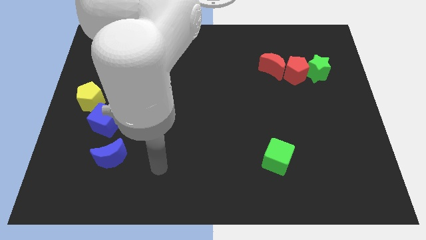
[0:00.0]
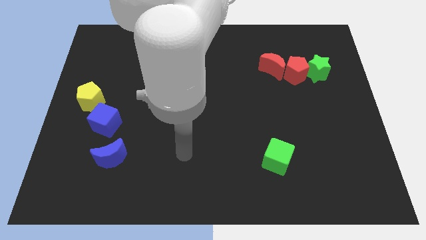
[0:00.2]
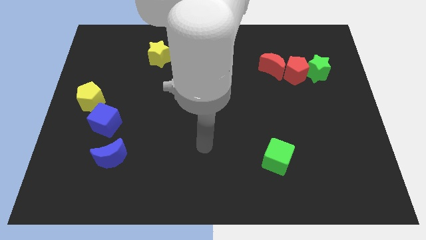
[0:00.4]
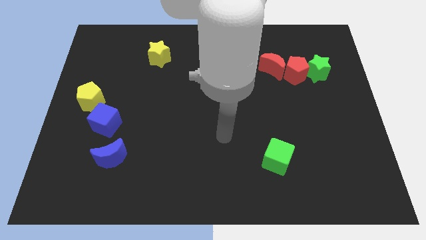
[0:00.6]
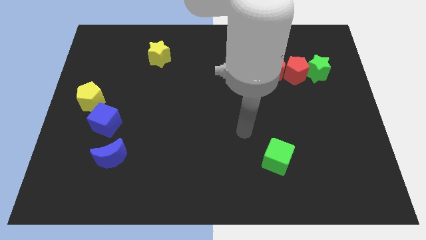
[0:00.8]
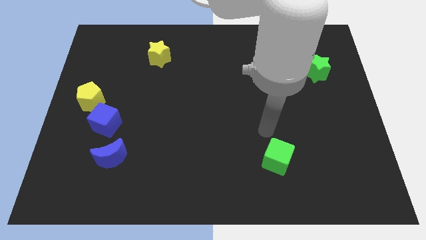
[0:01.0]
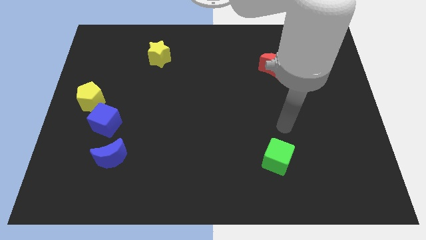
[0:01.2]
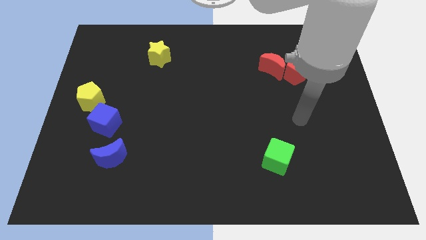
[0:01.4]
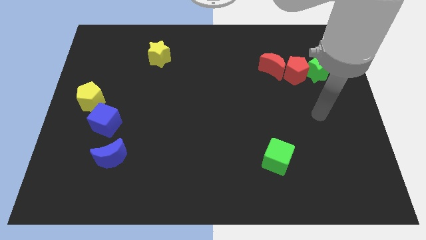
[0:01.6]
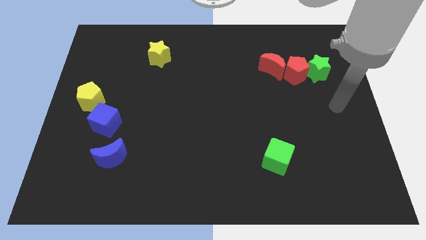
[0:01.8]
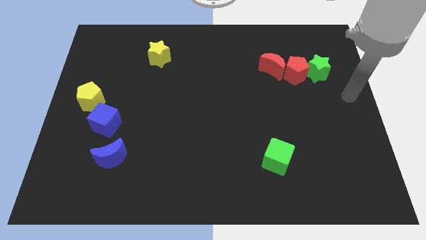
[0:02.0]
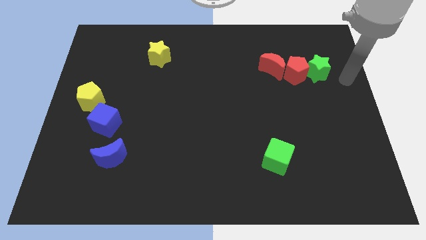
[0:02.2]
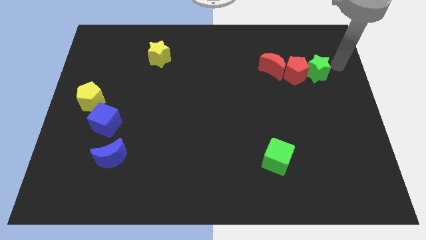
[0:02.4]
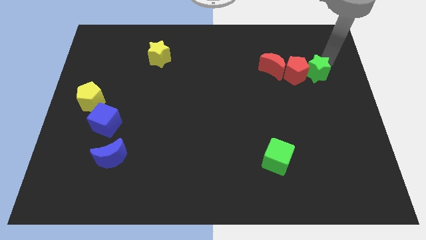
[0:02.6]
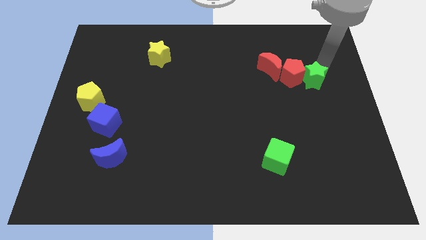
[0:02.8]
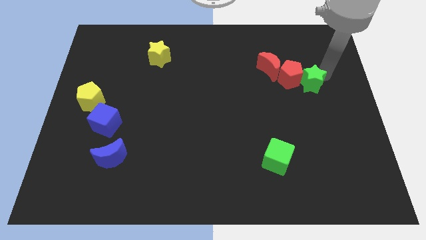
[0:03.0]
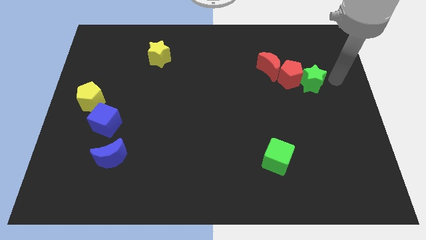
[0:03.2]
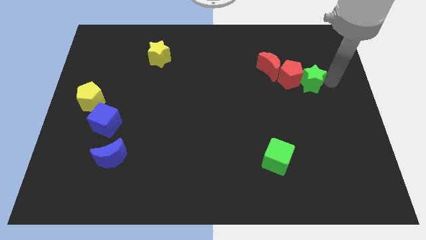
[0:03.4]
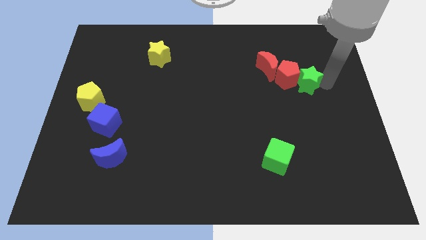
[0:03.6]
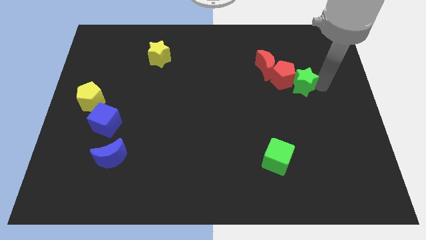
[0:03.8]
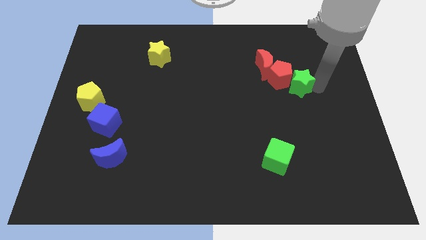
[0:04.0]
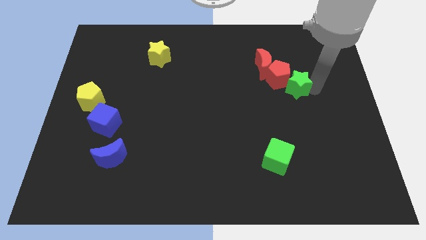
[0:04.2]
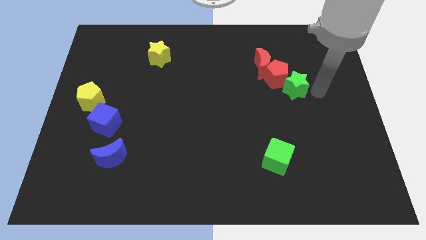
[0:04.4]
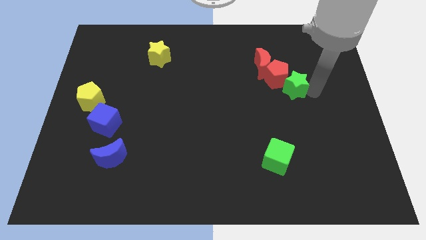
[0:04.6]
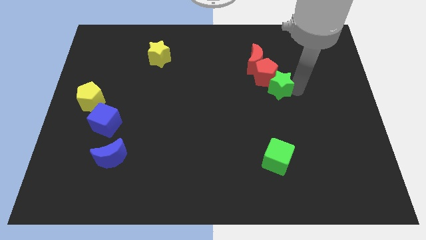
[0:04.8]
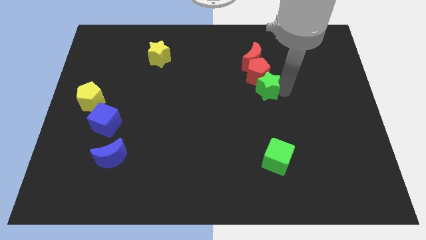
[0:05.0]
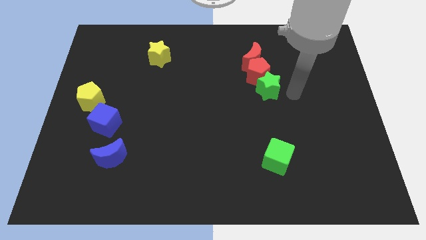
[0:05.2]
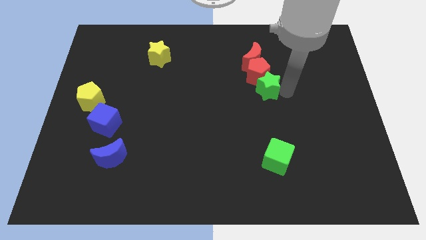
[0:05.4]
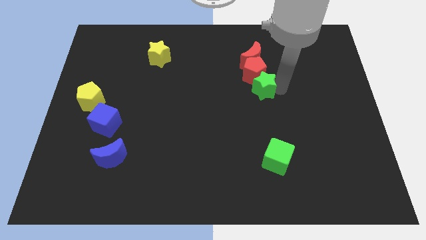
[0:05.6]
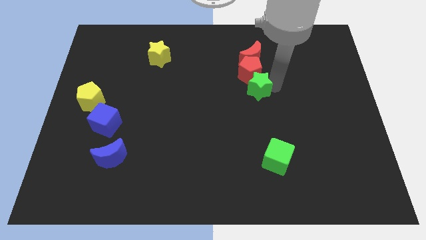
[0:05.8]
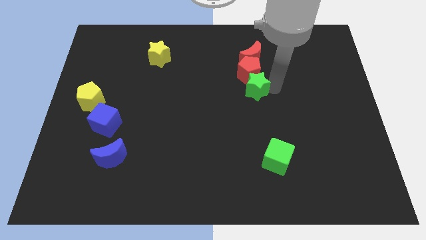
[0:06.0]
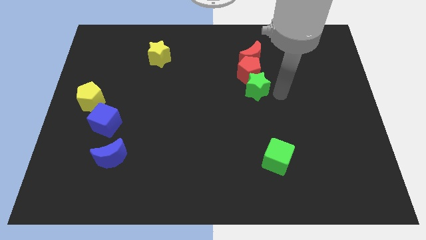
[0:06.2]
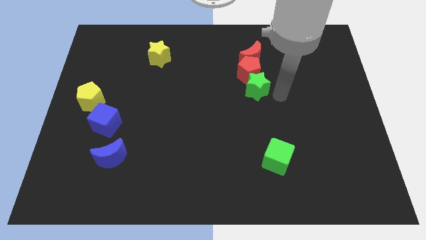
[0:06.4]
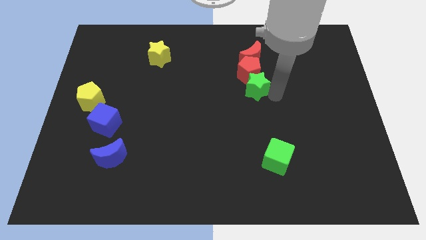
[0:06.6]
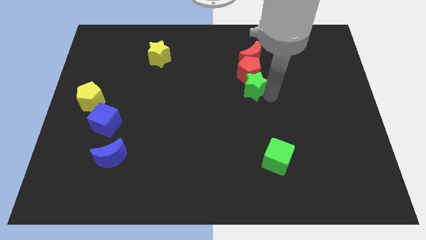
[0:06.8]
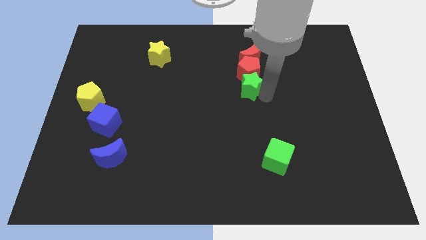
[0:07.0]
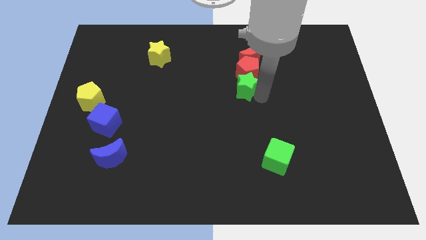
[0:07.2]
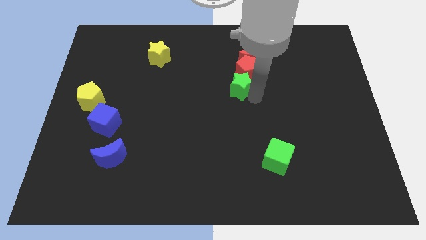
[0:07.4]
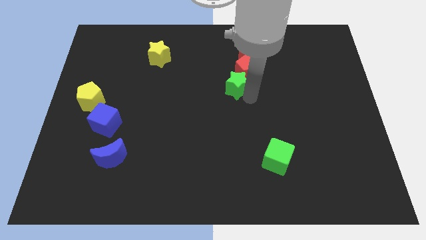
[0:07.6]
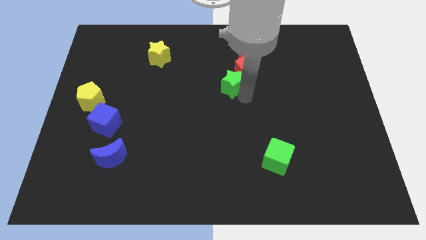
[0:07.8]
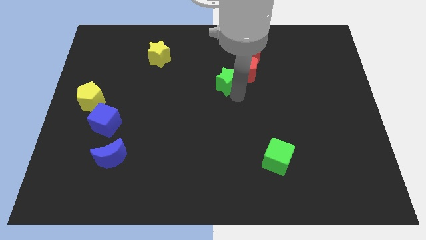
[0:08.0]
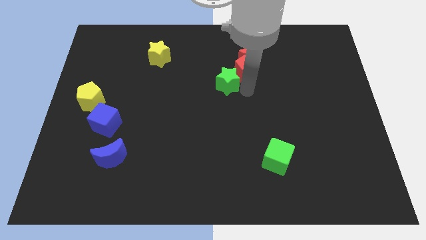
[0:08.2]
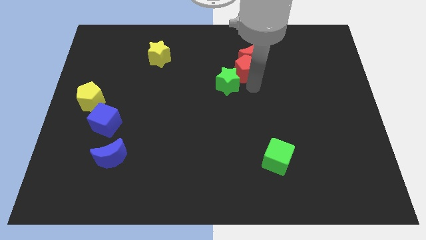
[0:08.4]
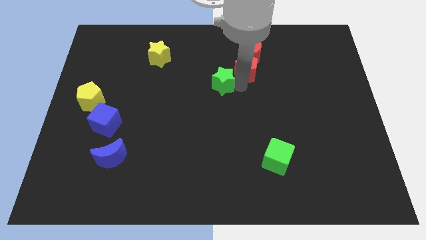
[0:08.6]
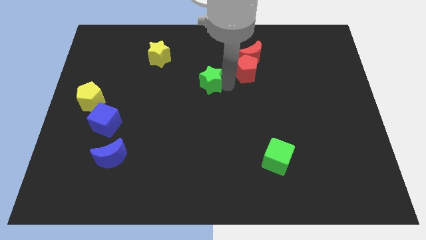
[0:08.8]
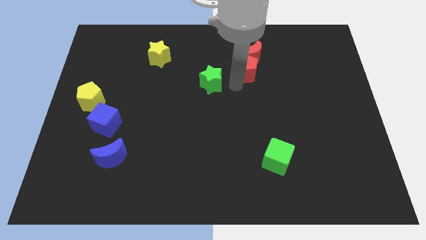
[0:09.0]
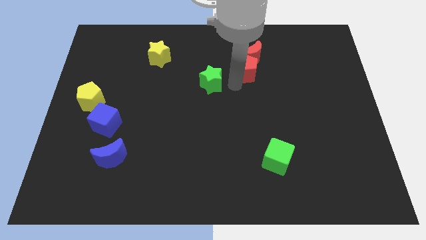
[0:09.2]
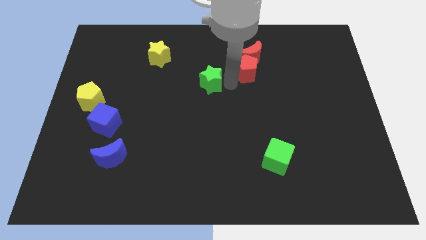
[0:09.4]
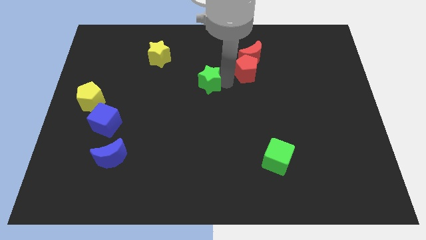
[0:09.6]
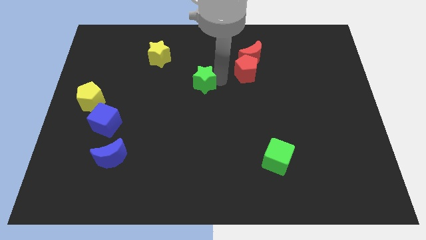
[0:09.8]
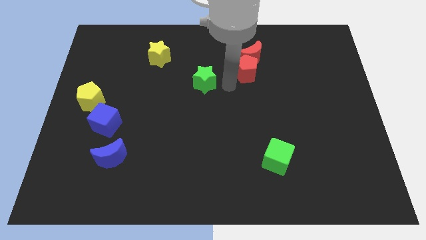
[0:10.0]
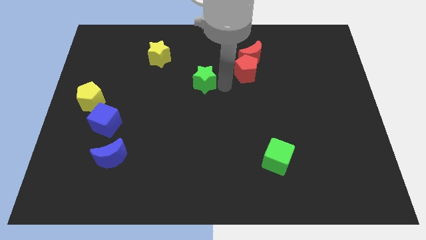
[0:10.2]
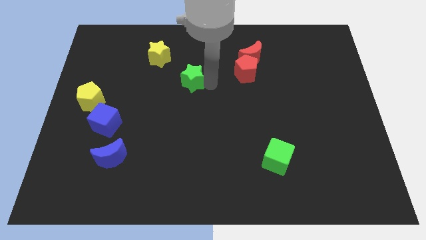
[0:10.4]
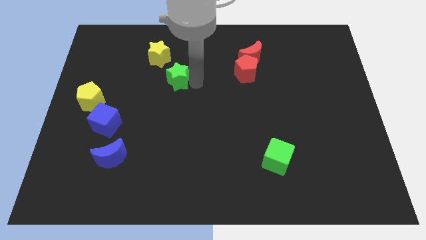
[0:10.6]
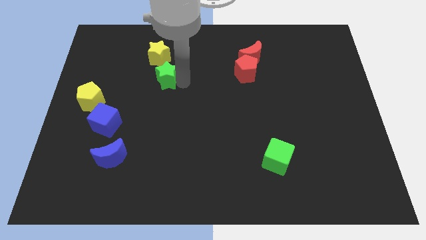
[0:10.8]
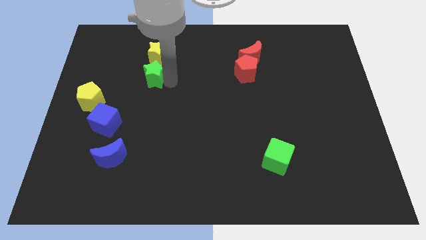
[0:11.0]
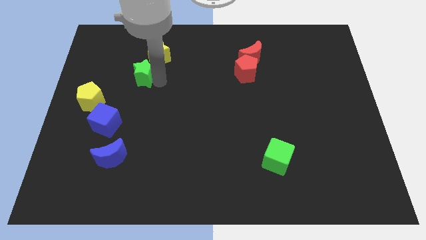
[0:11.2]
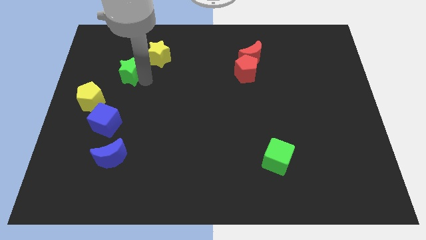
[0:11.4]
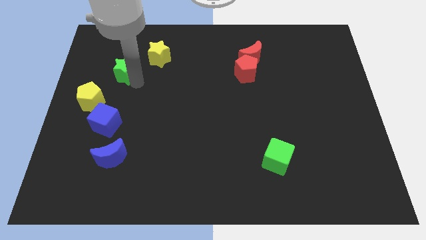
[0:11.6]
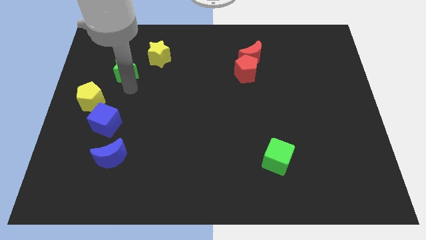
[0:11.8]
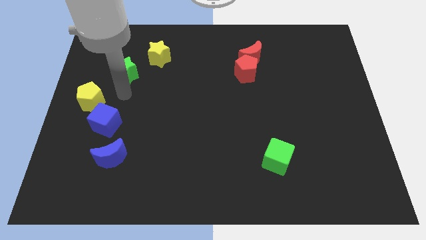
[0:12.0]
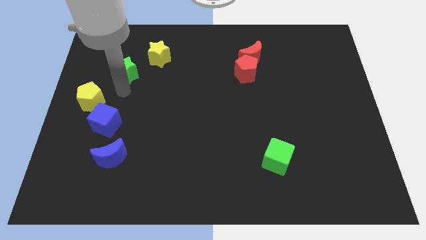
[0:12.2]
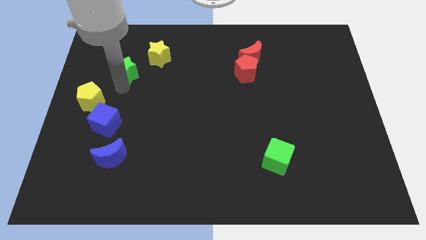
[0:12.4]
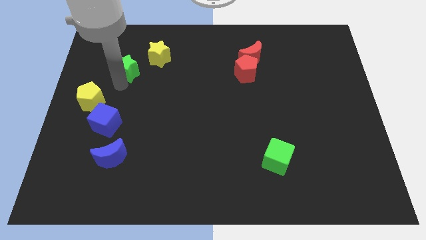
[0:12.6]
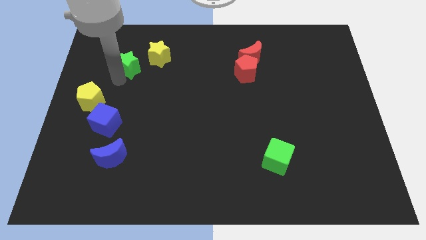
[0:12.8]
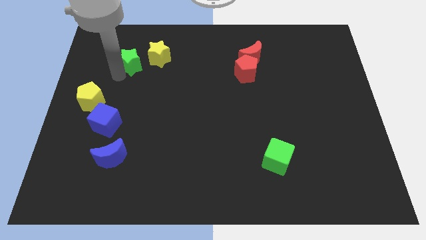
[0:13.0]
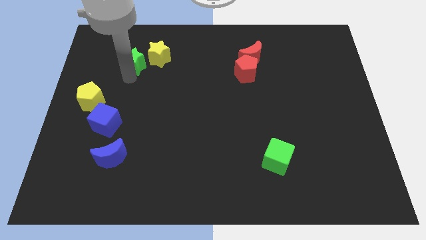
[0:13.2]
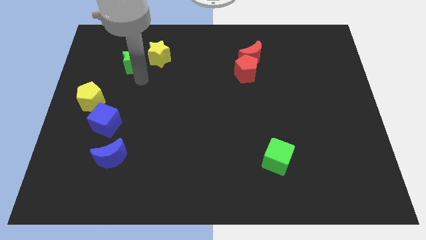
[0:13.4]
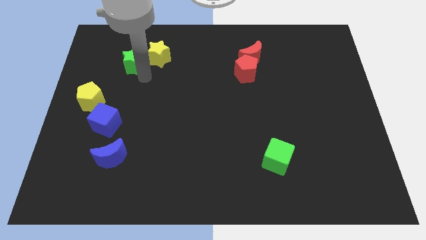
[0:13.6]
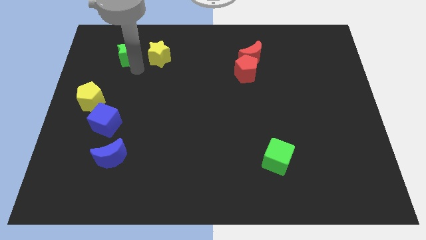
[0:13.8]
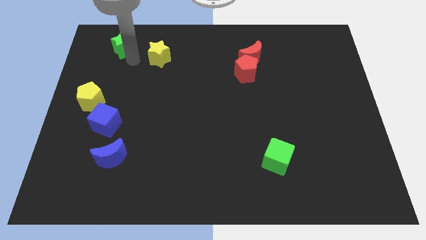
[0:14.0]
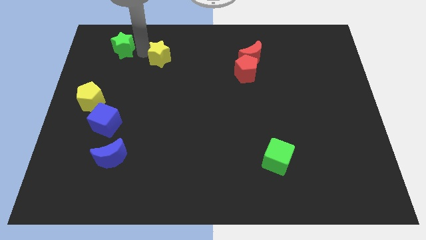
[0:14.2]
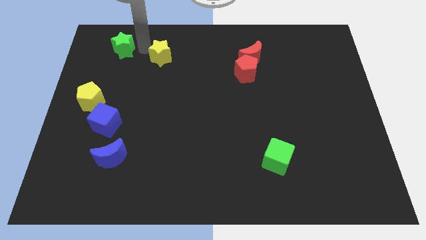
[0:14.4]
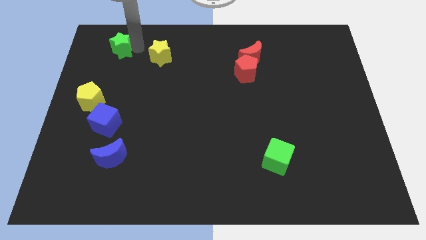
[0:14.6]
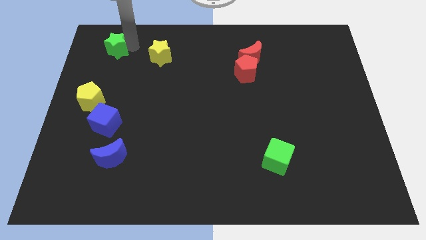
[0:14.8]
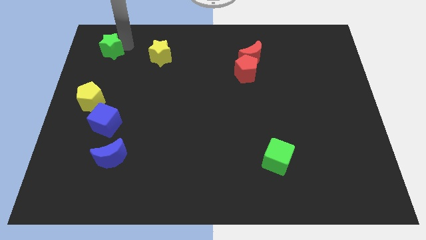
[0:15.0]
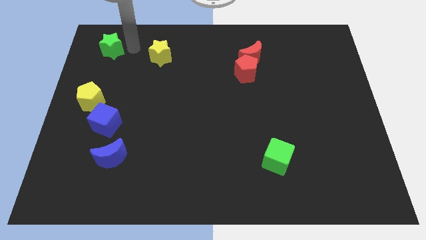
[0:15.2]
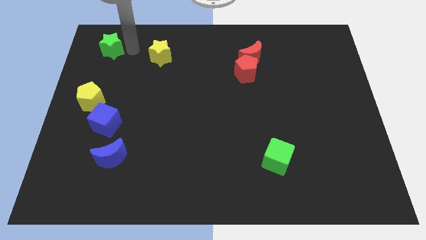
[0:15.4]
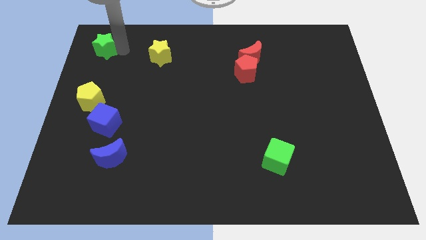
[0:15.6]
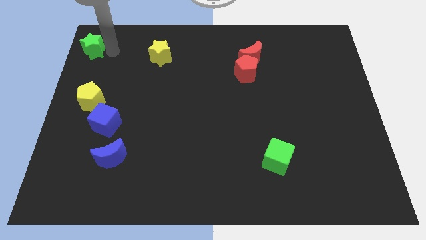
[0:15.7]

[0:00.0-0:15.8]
slide the green star to the top left
